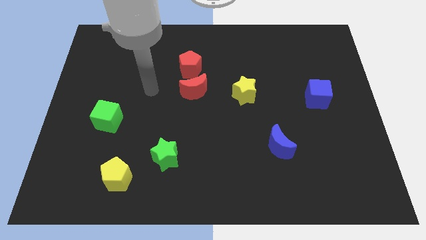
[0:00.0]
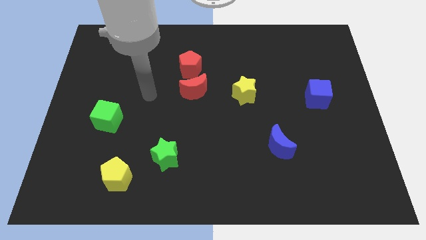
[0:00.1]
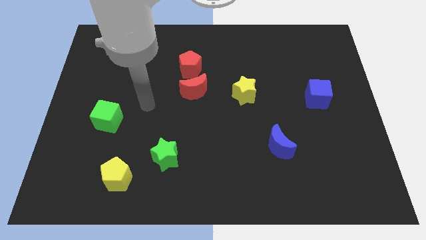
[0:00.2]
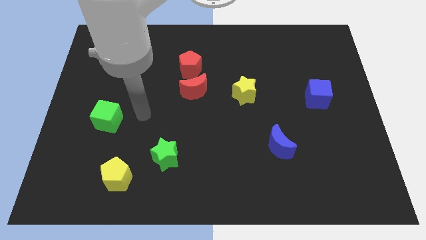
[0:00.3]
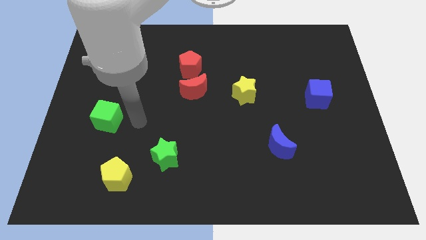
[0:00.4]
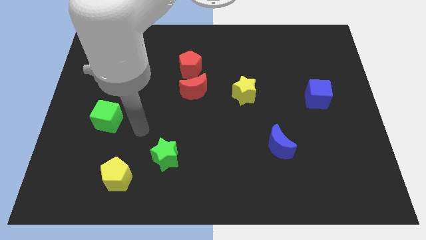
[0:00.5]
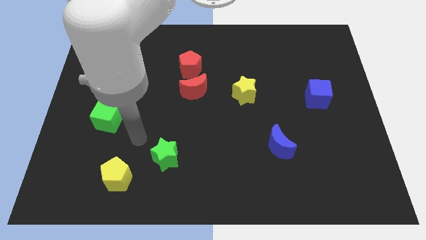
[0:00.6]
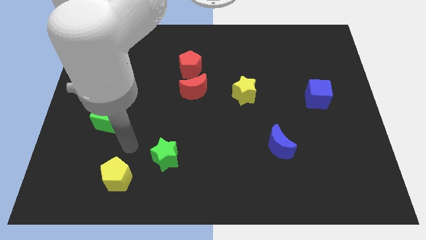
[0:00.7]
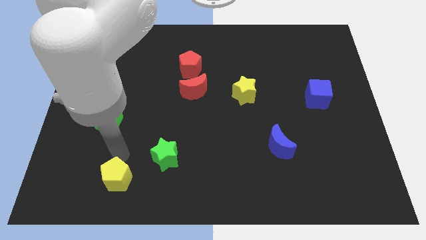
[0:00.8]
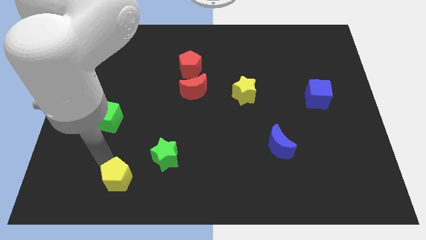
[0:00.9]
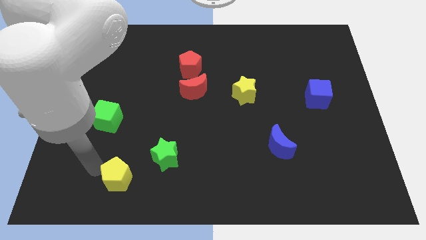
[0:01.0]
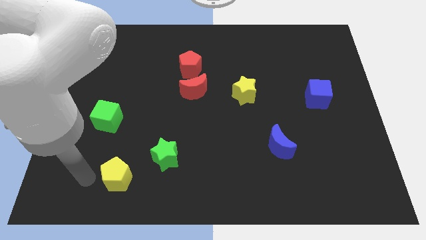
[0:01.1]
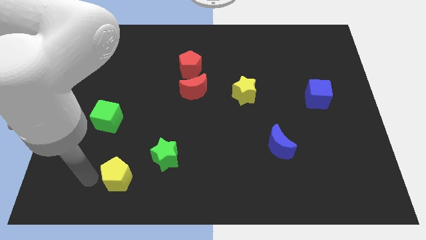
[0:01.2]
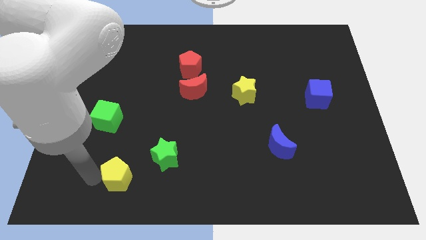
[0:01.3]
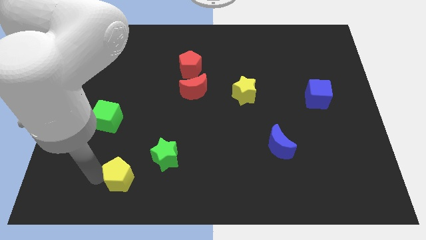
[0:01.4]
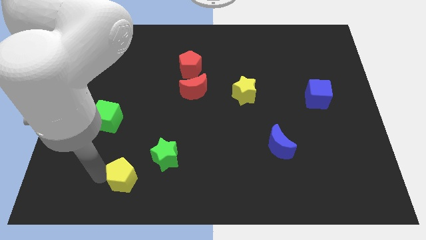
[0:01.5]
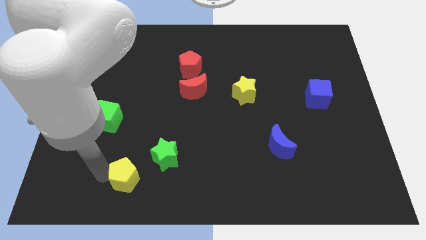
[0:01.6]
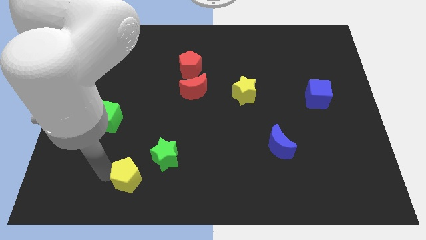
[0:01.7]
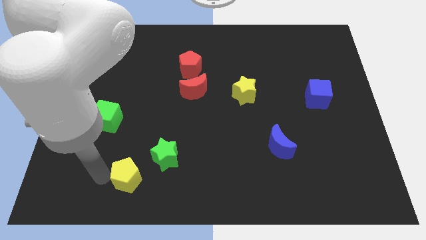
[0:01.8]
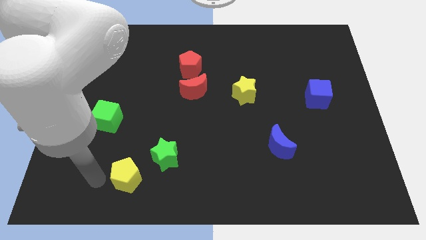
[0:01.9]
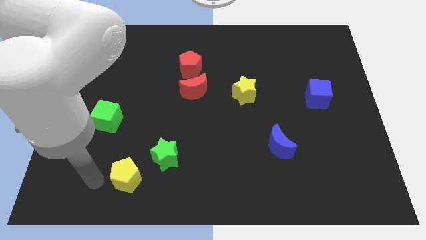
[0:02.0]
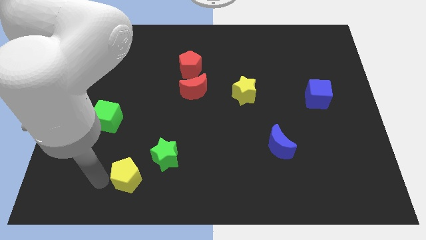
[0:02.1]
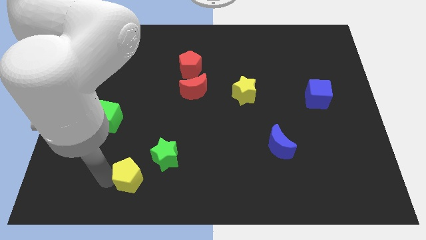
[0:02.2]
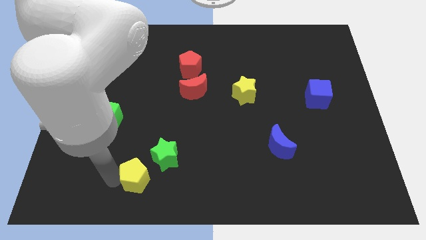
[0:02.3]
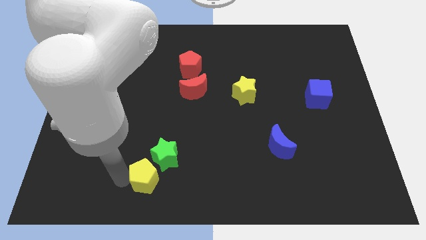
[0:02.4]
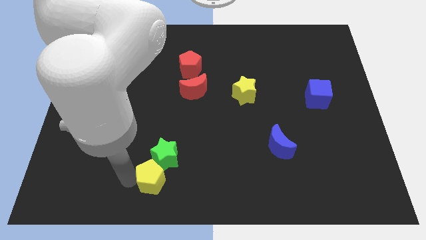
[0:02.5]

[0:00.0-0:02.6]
slightly move the yellow pentagon right

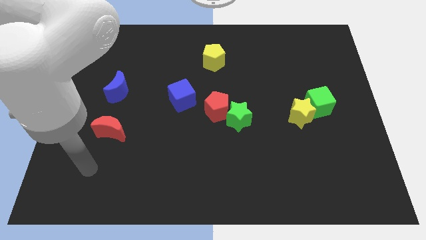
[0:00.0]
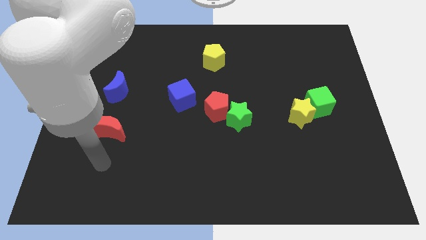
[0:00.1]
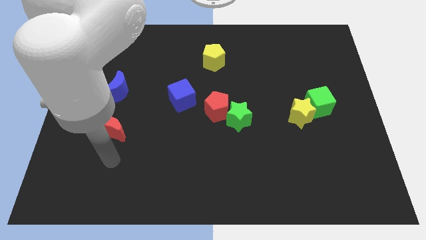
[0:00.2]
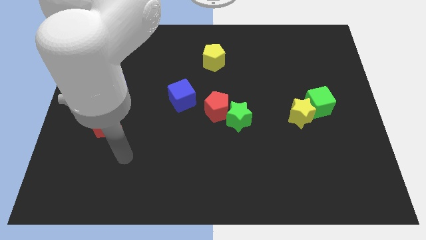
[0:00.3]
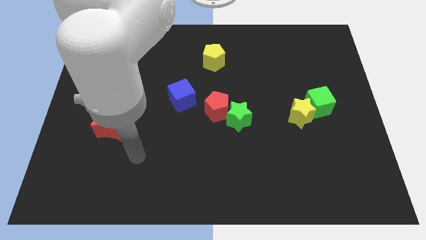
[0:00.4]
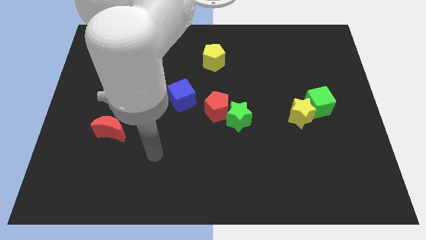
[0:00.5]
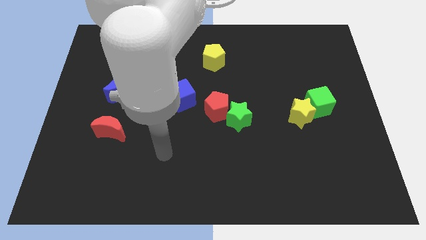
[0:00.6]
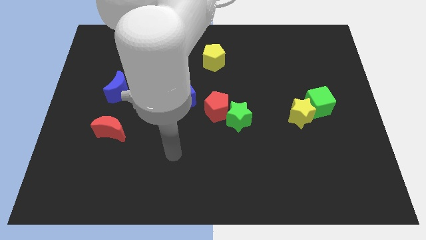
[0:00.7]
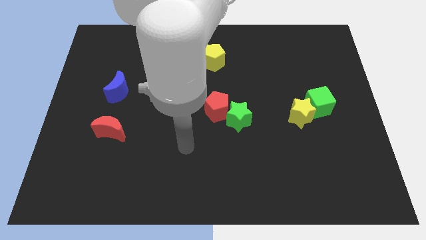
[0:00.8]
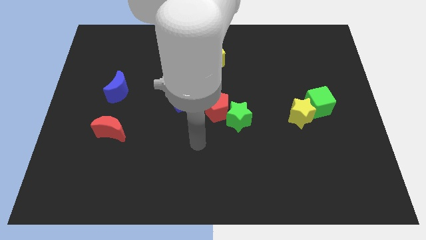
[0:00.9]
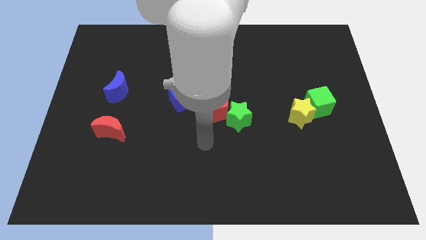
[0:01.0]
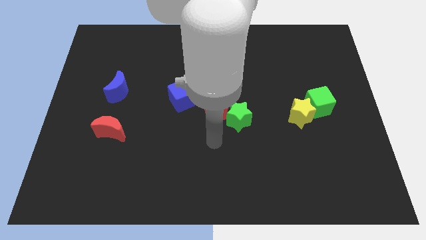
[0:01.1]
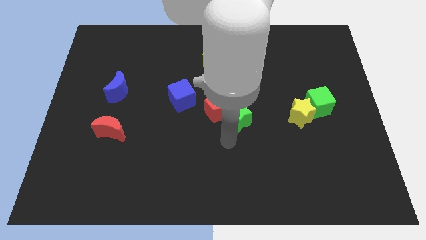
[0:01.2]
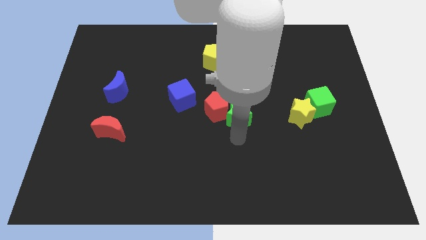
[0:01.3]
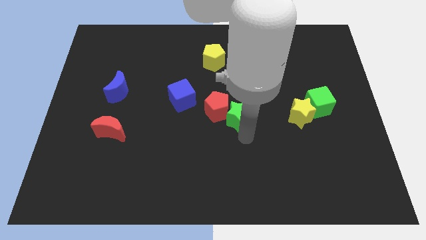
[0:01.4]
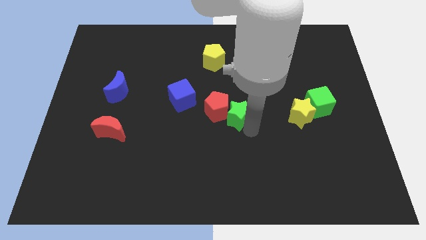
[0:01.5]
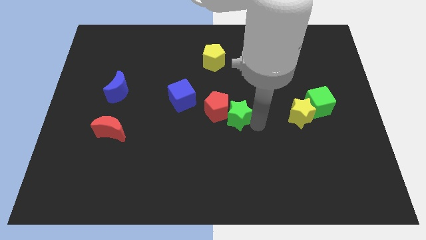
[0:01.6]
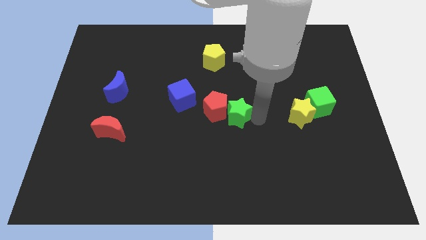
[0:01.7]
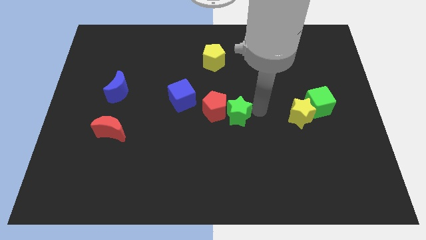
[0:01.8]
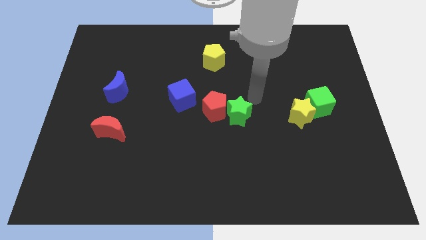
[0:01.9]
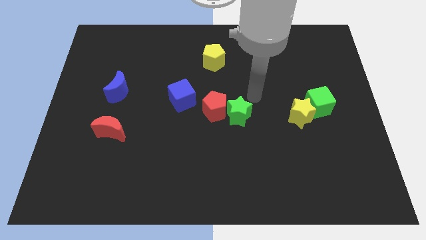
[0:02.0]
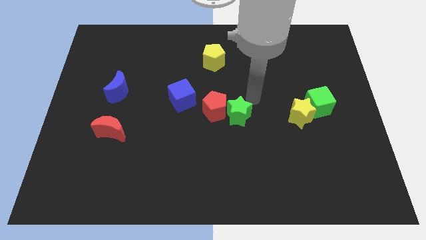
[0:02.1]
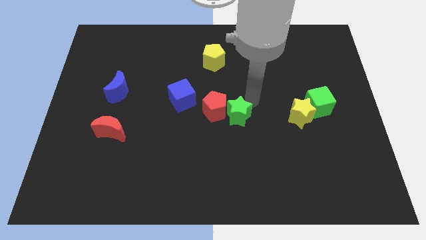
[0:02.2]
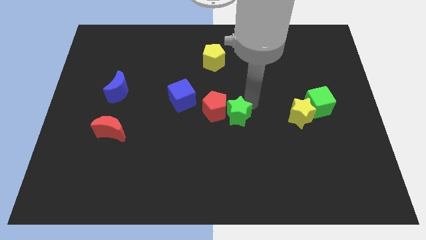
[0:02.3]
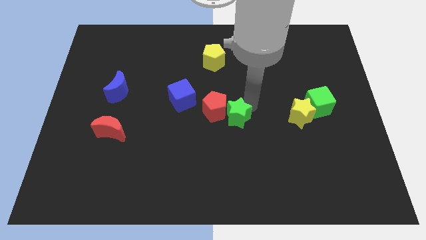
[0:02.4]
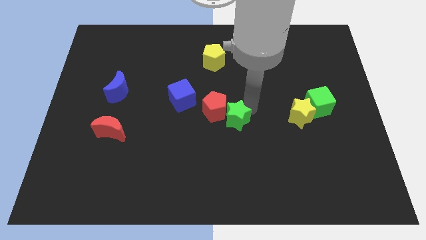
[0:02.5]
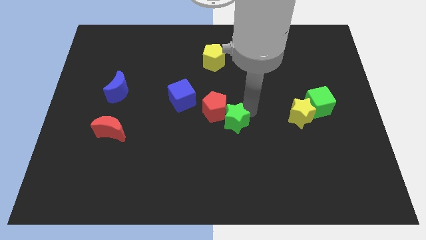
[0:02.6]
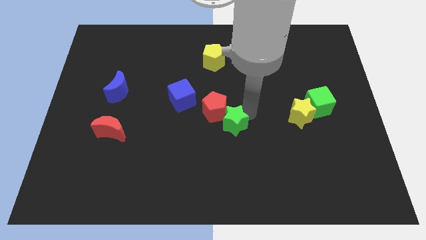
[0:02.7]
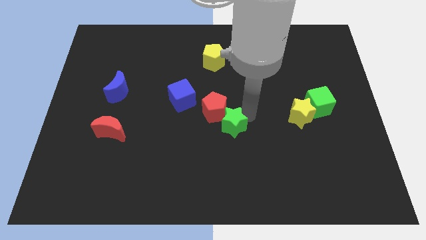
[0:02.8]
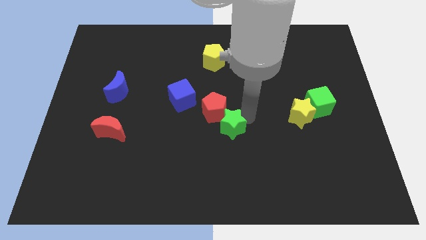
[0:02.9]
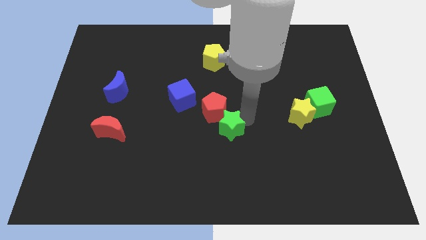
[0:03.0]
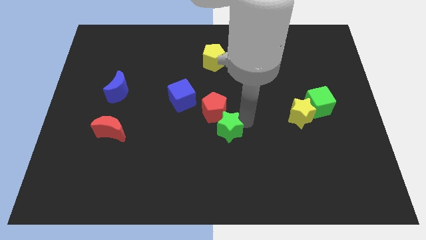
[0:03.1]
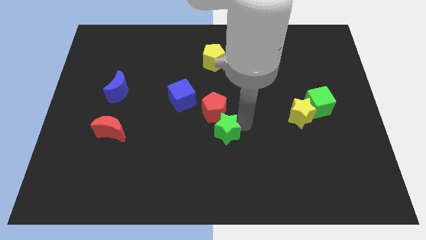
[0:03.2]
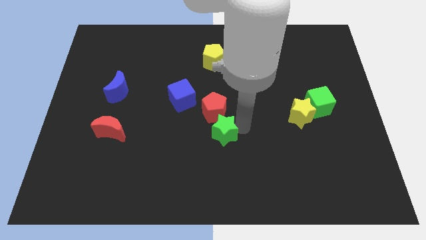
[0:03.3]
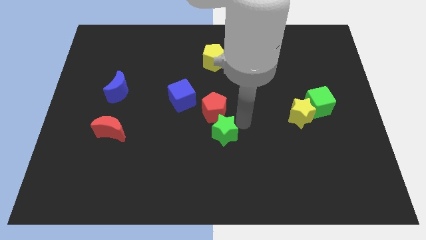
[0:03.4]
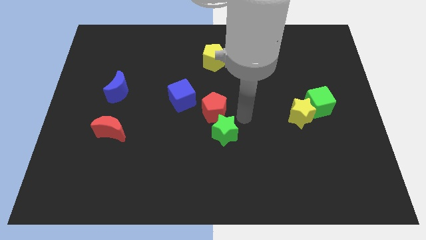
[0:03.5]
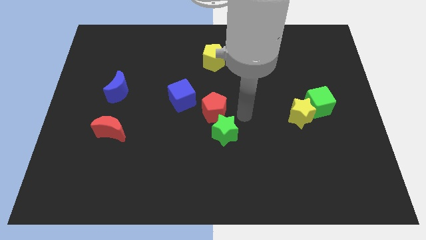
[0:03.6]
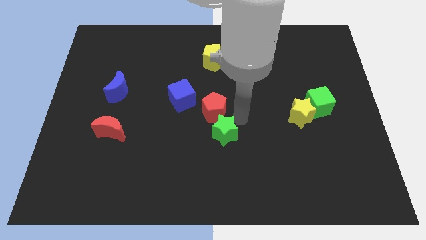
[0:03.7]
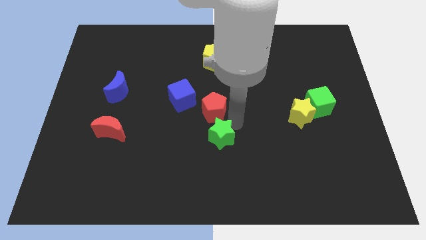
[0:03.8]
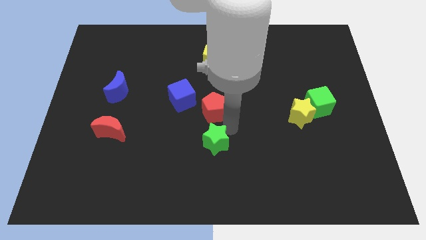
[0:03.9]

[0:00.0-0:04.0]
slide the green star downwards and then left slightly

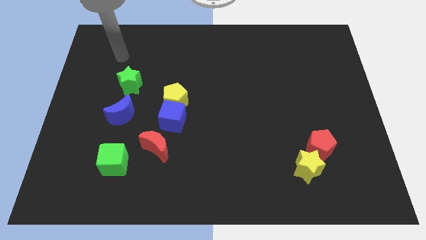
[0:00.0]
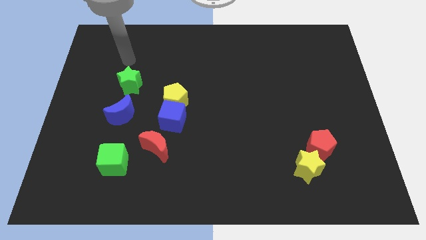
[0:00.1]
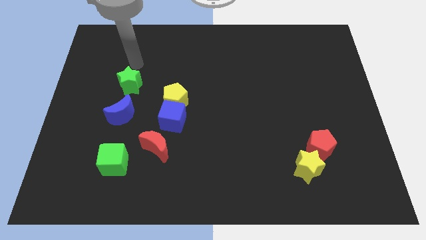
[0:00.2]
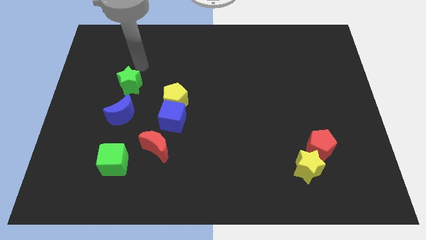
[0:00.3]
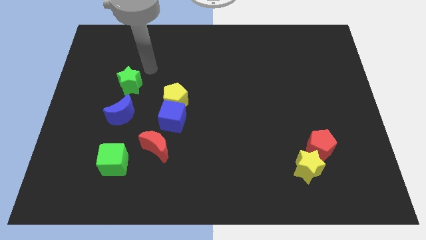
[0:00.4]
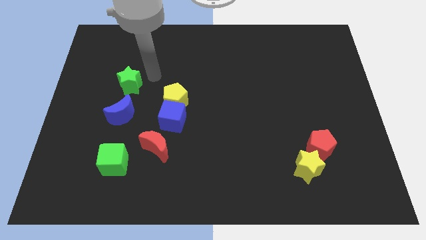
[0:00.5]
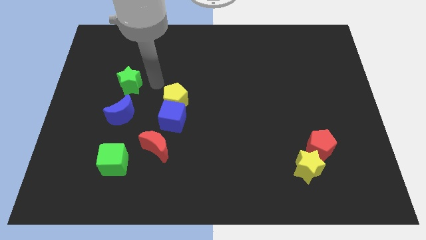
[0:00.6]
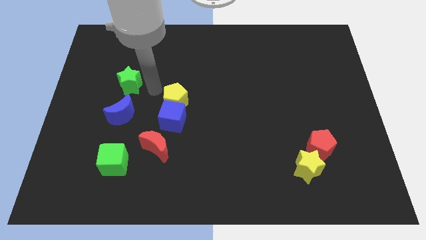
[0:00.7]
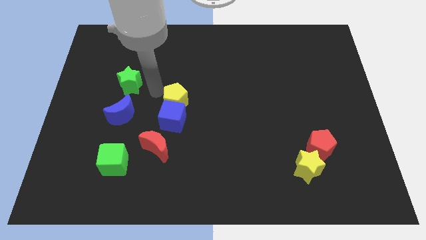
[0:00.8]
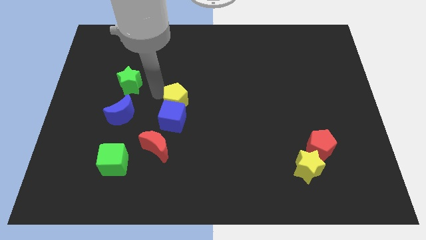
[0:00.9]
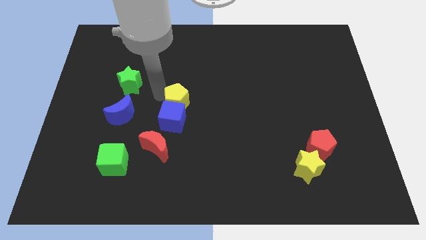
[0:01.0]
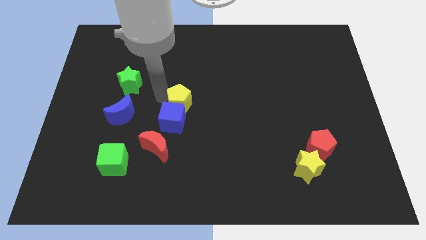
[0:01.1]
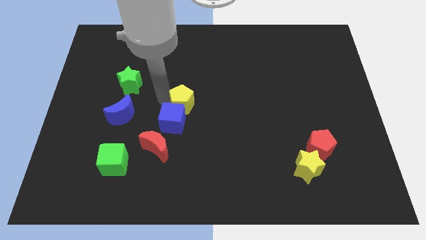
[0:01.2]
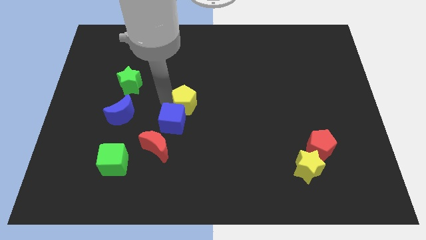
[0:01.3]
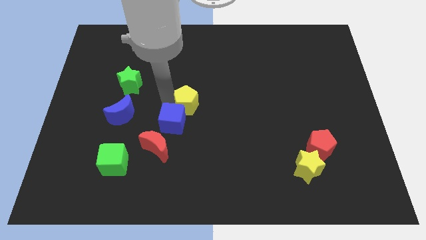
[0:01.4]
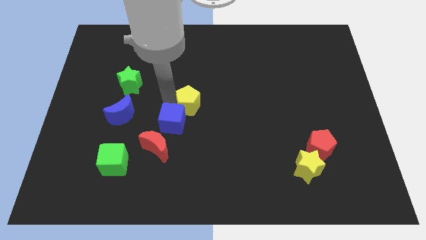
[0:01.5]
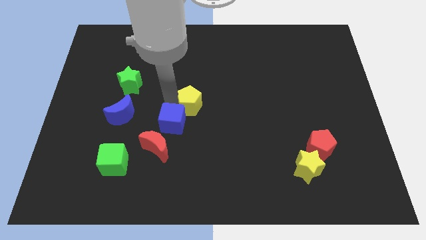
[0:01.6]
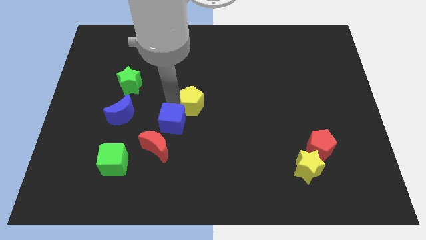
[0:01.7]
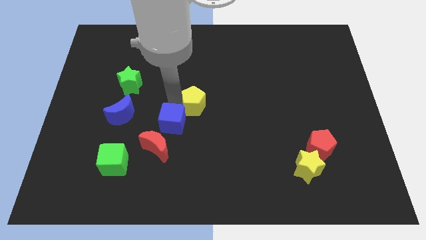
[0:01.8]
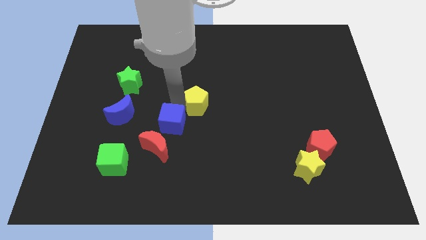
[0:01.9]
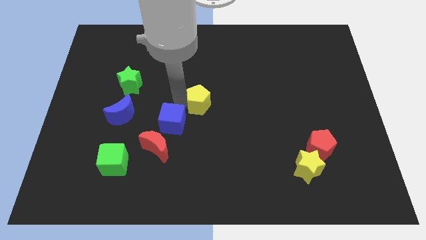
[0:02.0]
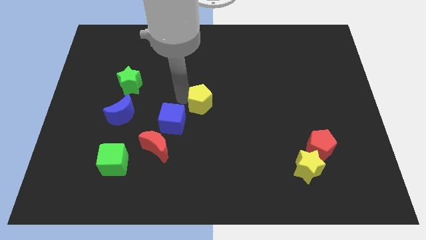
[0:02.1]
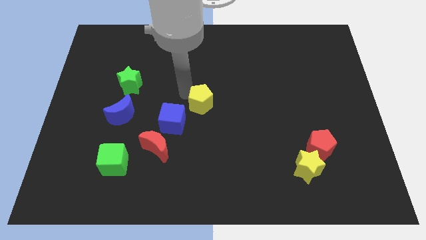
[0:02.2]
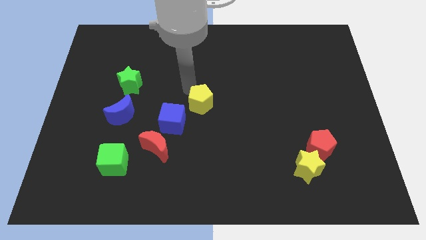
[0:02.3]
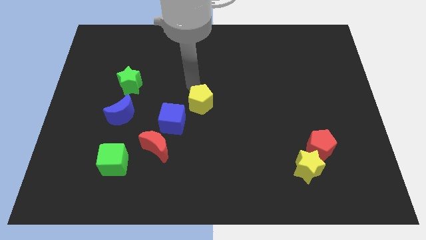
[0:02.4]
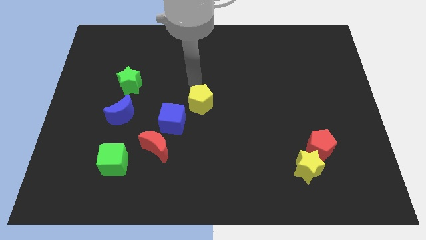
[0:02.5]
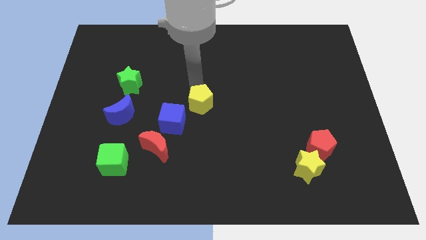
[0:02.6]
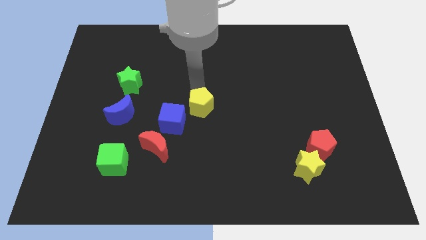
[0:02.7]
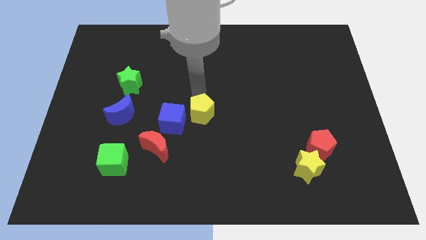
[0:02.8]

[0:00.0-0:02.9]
move the yellow pentagon slightly downwards and right diagonally
